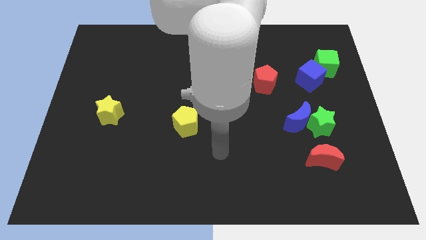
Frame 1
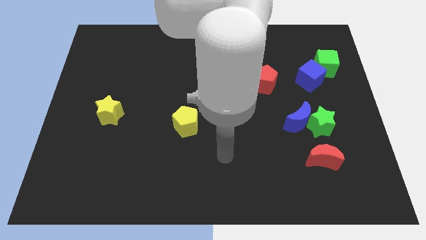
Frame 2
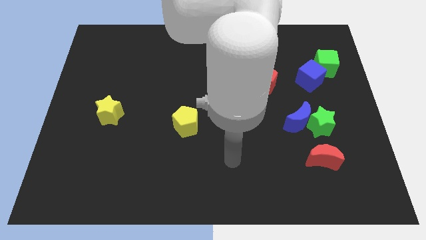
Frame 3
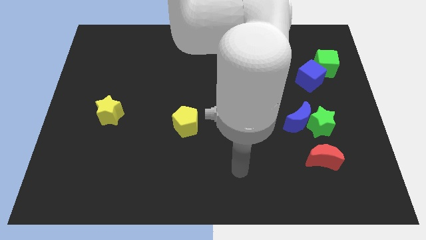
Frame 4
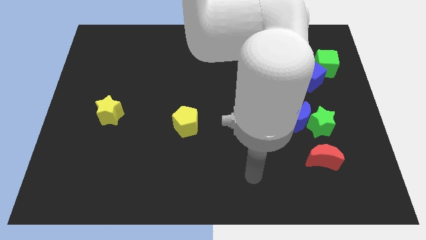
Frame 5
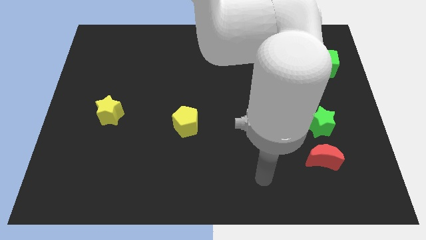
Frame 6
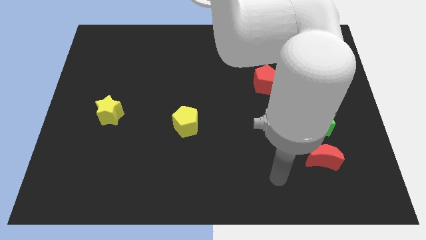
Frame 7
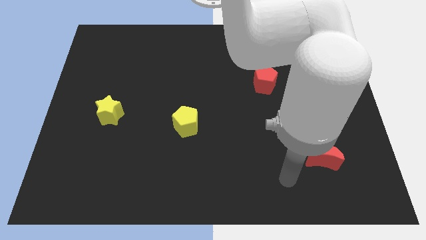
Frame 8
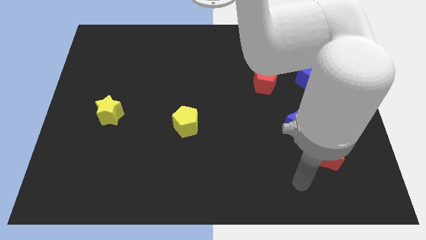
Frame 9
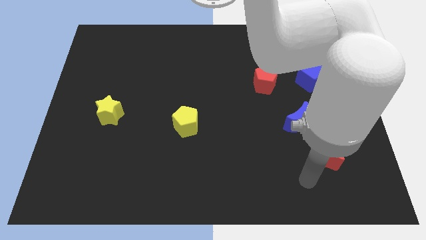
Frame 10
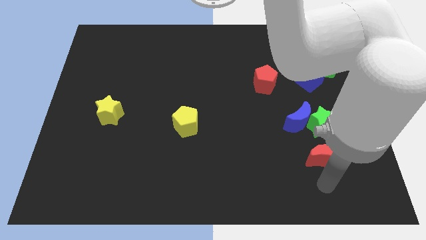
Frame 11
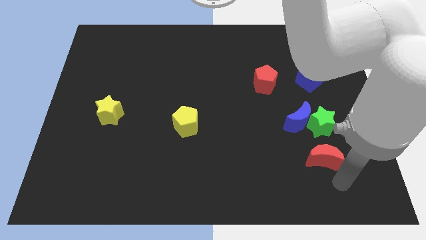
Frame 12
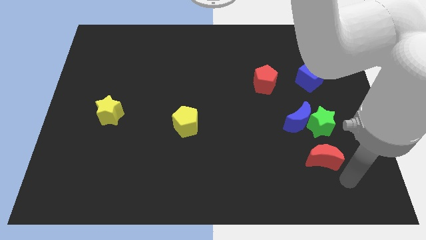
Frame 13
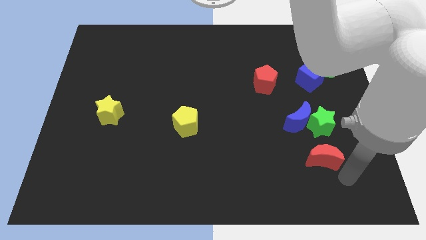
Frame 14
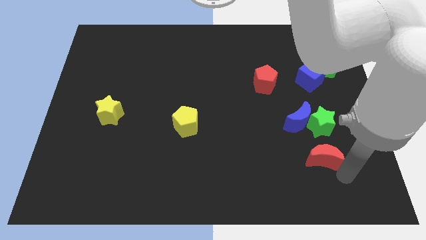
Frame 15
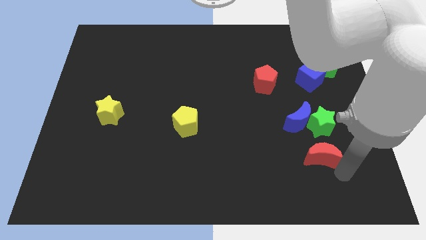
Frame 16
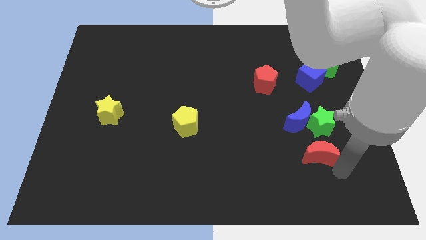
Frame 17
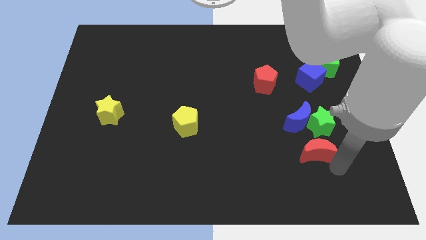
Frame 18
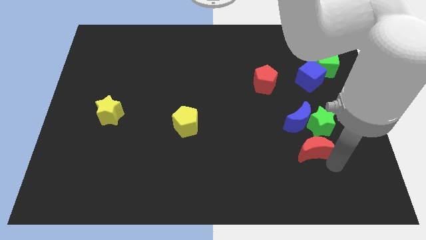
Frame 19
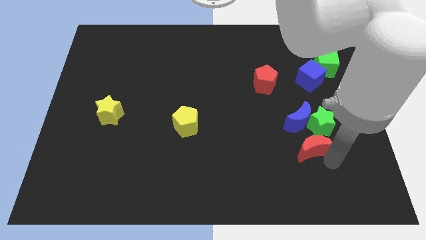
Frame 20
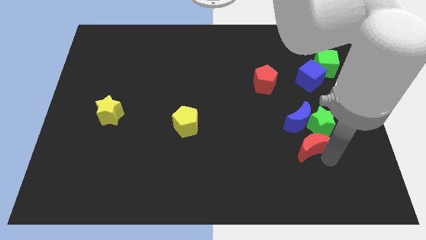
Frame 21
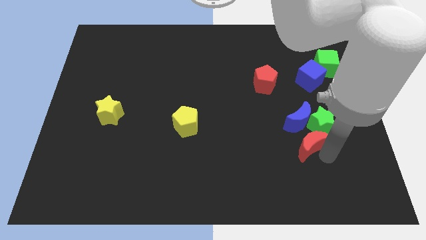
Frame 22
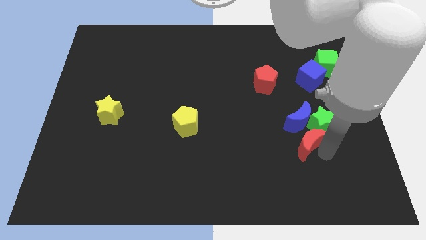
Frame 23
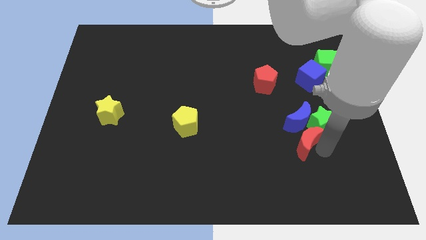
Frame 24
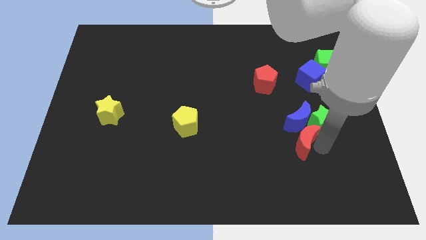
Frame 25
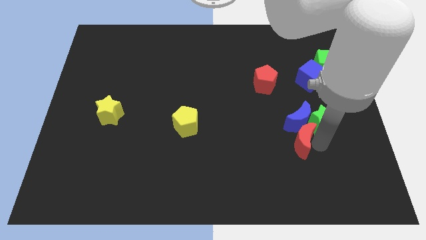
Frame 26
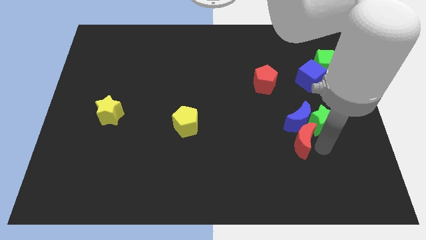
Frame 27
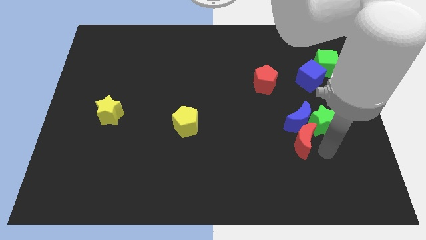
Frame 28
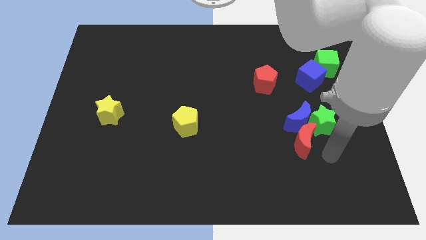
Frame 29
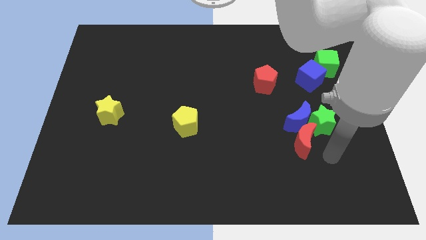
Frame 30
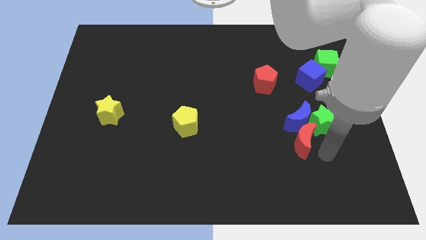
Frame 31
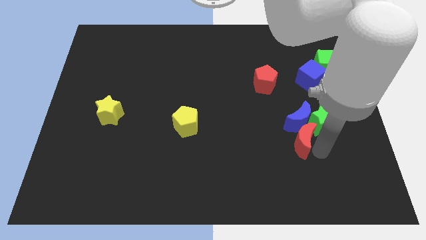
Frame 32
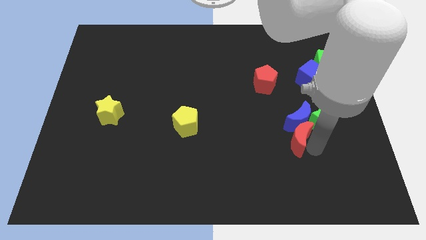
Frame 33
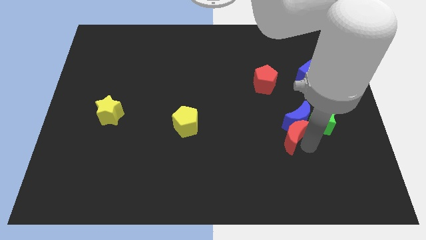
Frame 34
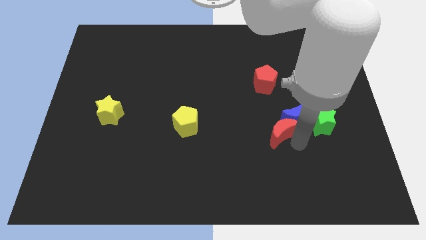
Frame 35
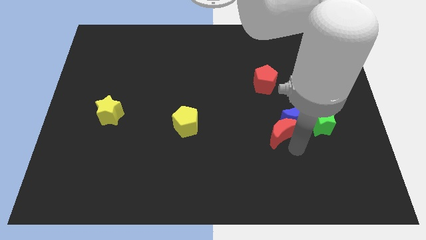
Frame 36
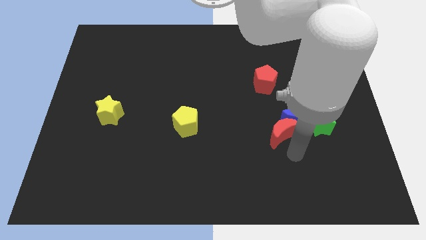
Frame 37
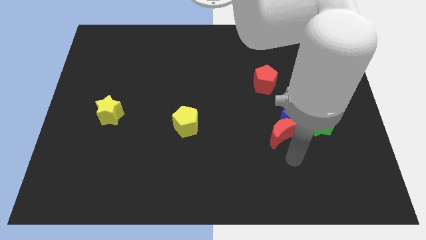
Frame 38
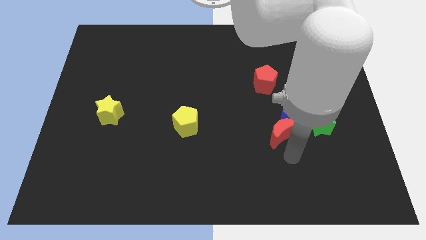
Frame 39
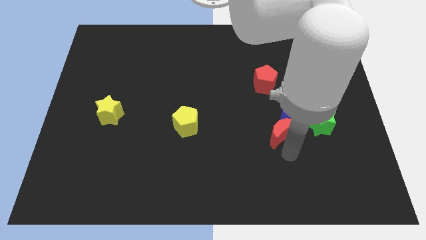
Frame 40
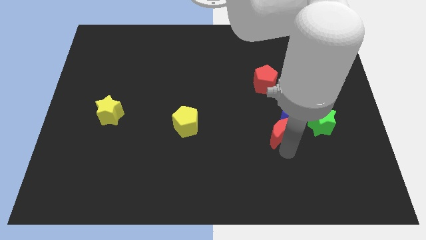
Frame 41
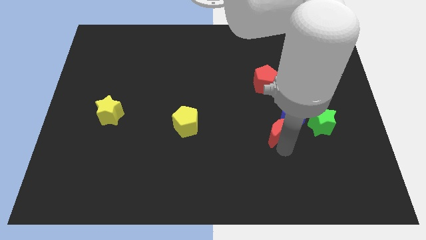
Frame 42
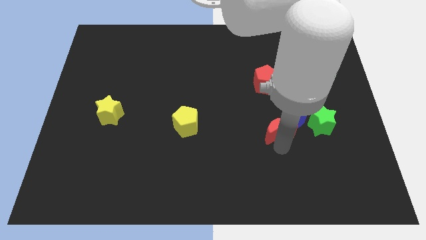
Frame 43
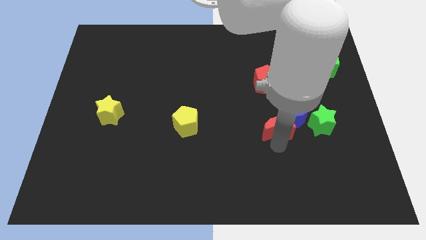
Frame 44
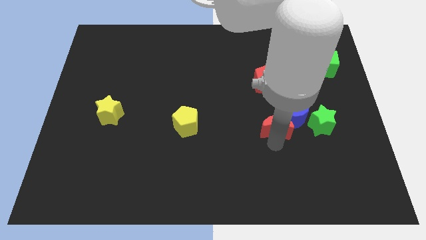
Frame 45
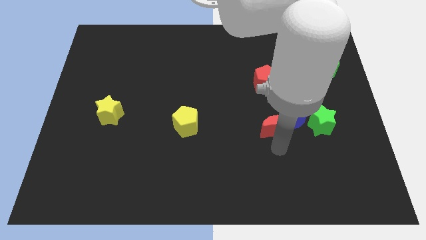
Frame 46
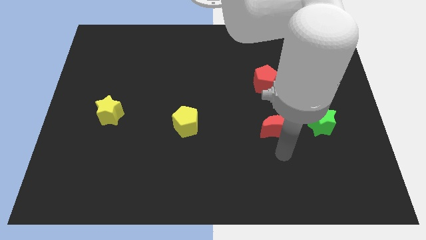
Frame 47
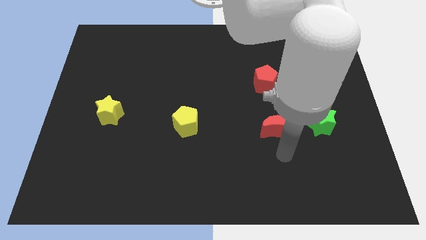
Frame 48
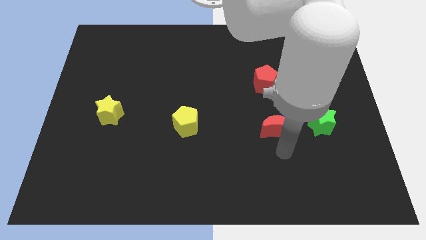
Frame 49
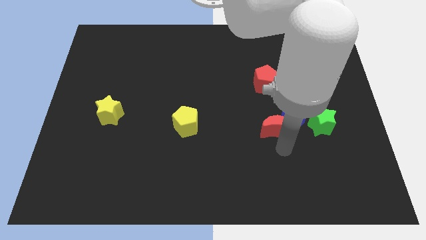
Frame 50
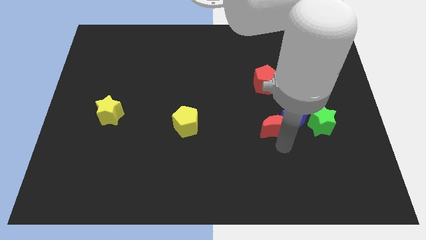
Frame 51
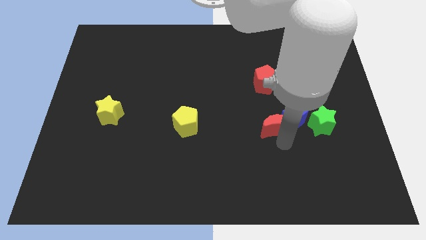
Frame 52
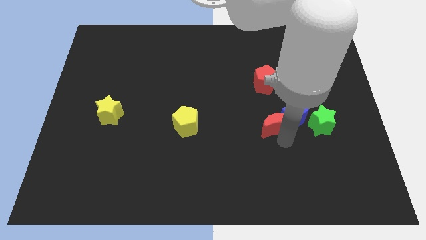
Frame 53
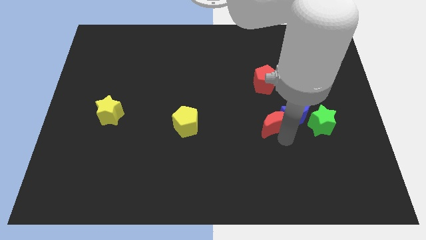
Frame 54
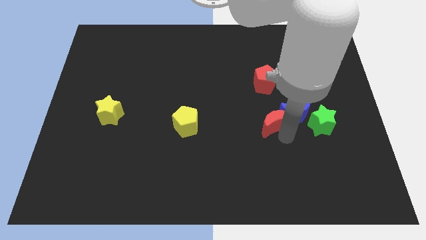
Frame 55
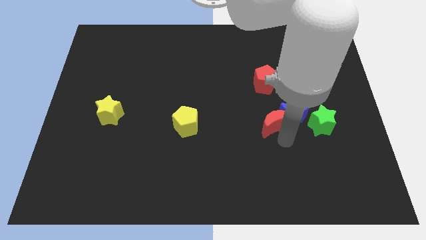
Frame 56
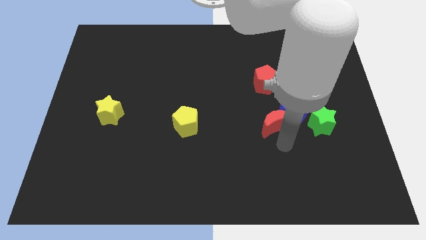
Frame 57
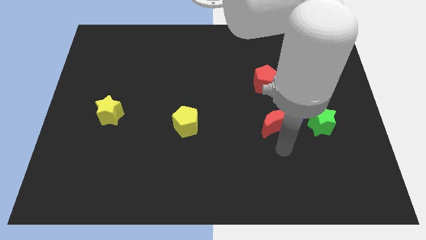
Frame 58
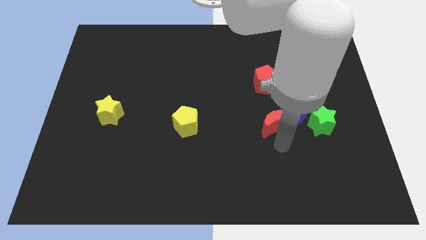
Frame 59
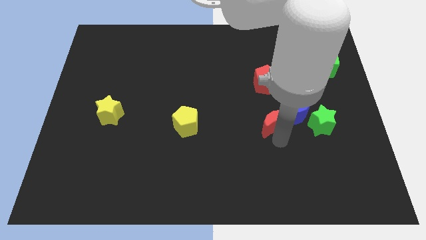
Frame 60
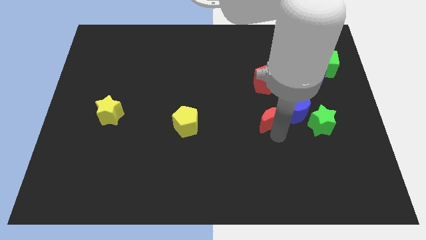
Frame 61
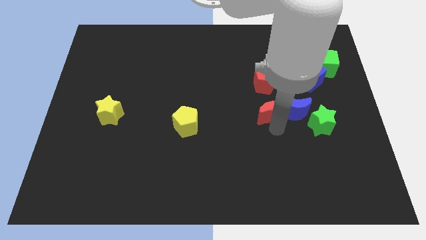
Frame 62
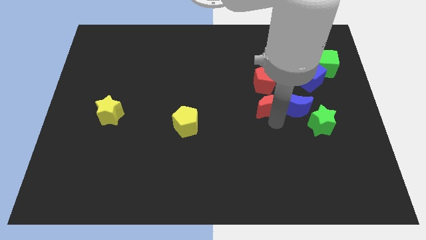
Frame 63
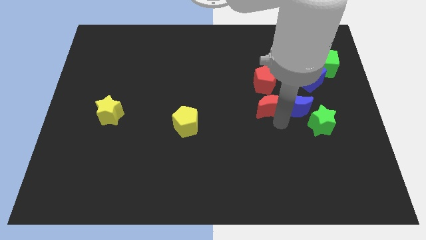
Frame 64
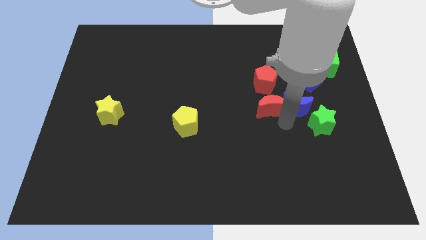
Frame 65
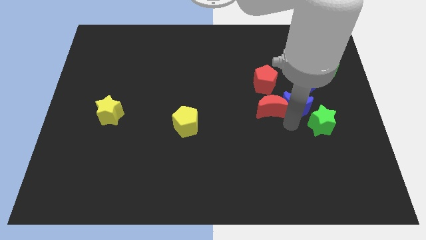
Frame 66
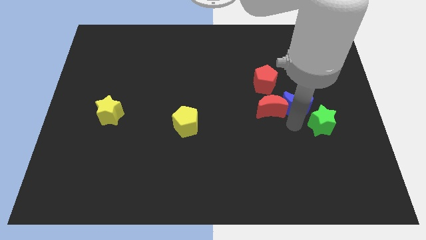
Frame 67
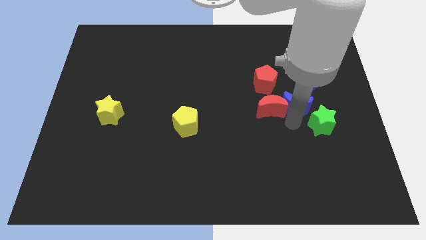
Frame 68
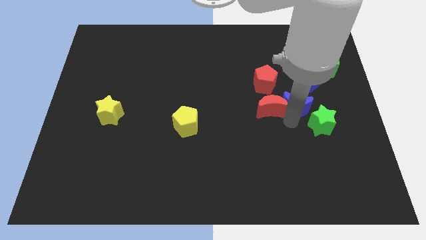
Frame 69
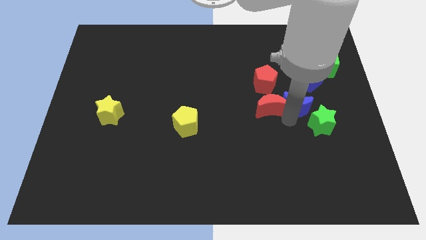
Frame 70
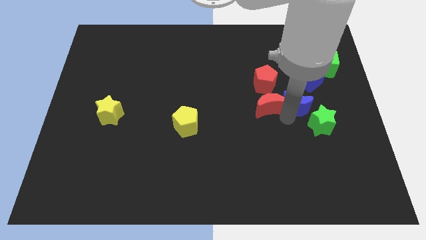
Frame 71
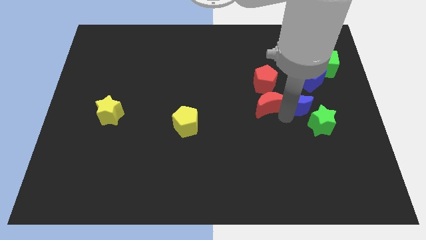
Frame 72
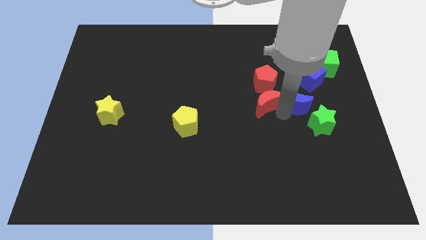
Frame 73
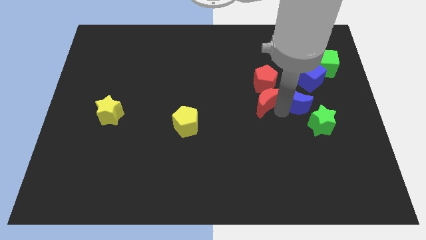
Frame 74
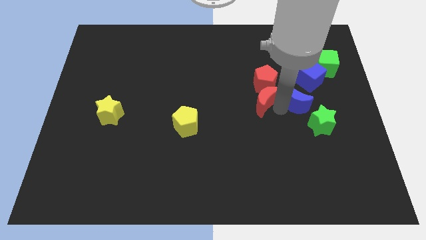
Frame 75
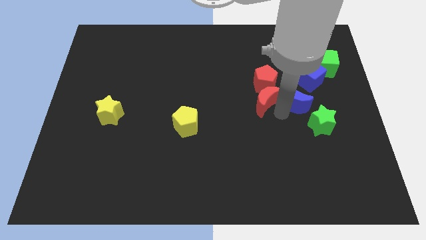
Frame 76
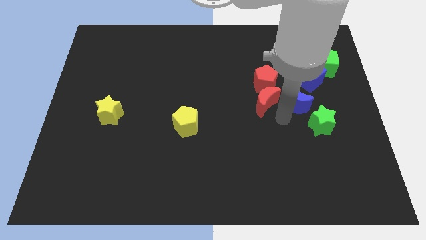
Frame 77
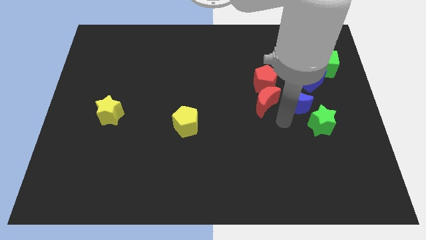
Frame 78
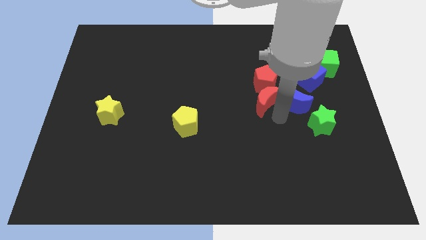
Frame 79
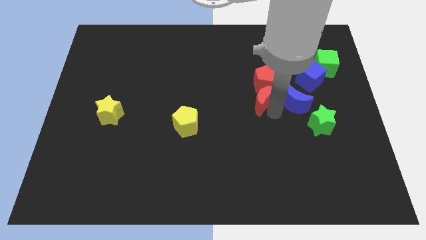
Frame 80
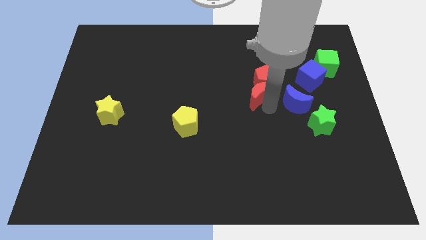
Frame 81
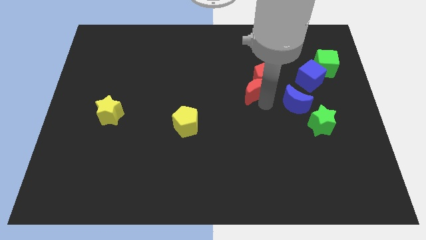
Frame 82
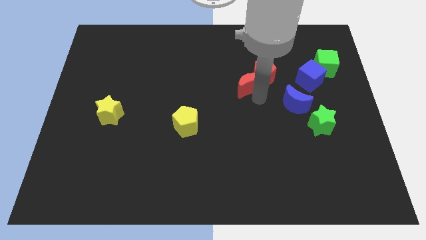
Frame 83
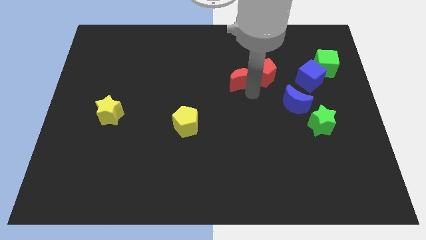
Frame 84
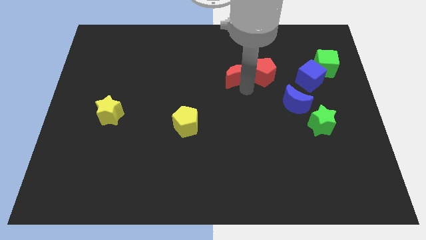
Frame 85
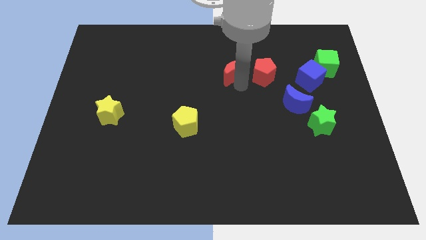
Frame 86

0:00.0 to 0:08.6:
move the red moon diagonally up and to the left of the red pentagon
